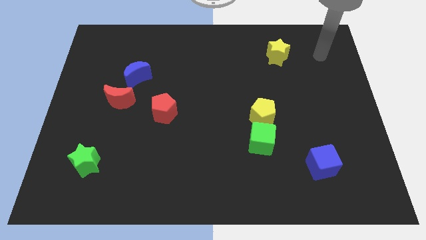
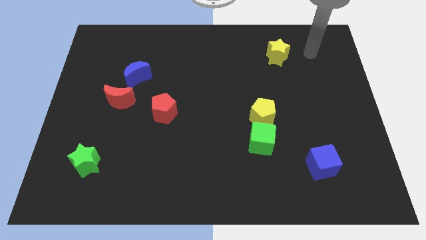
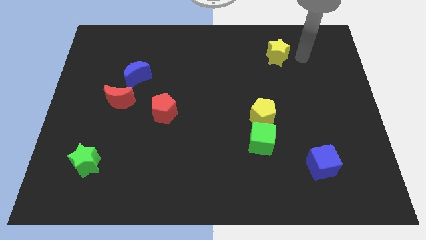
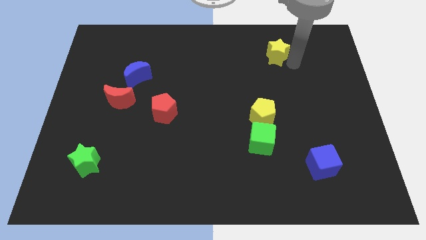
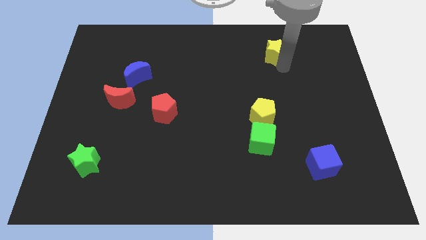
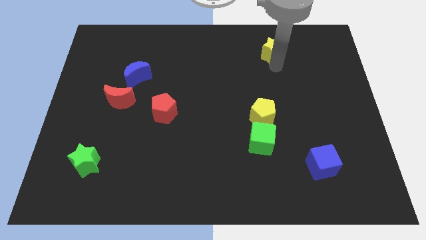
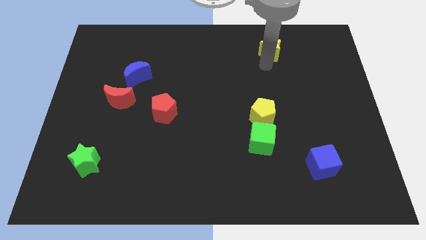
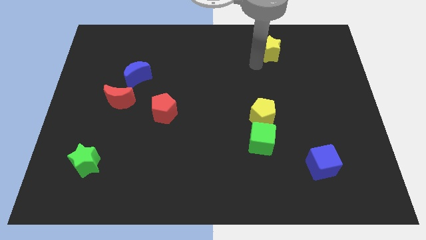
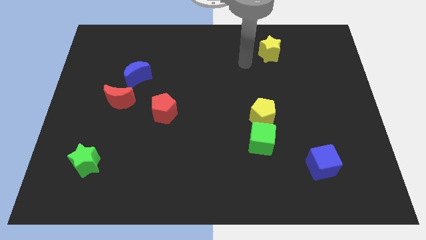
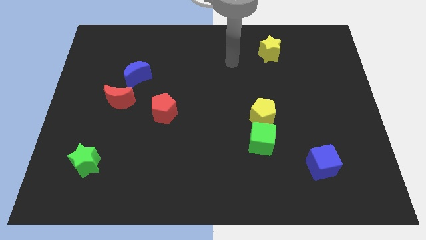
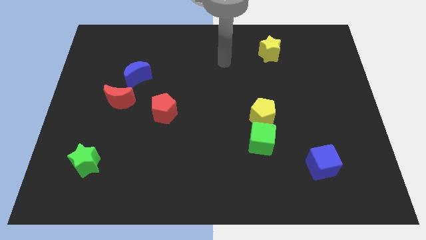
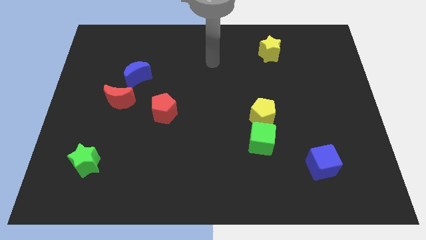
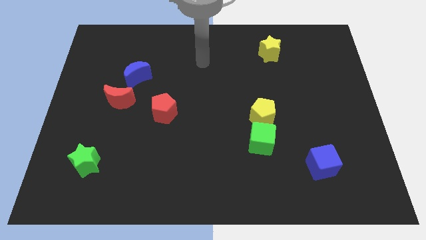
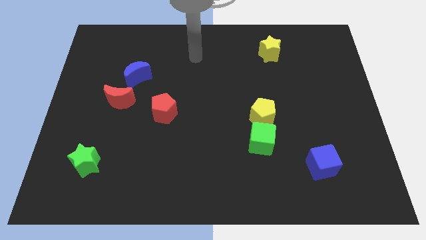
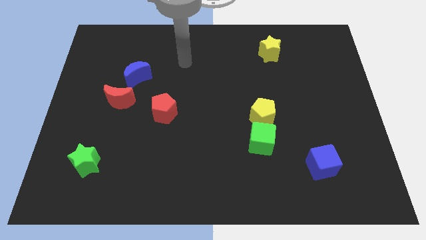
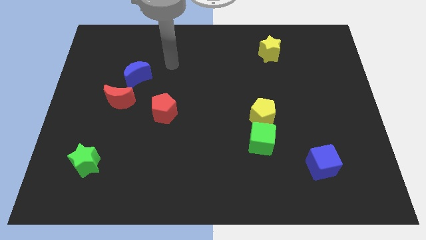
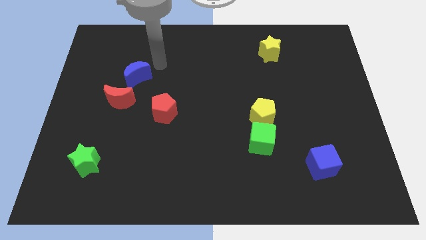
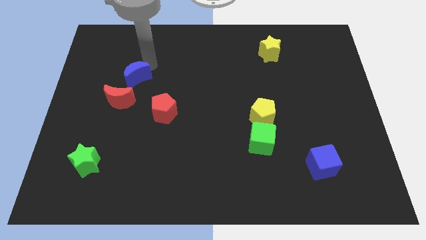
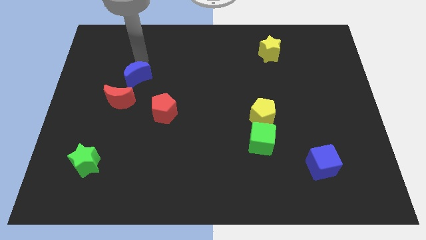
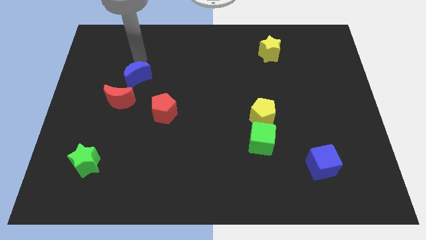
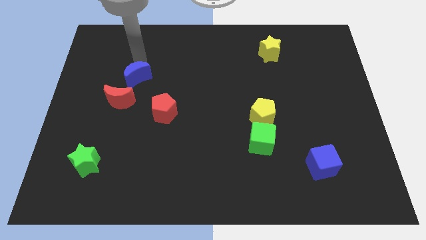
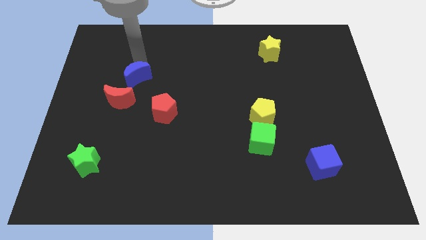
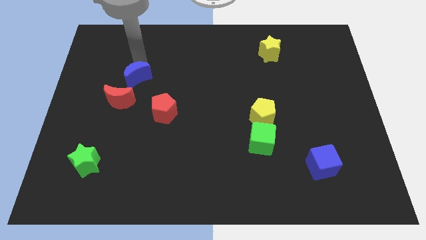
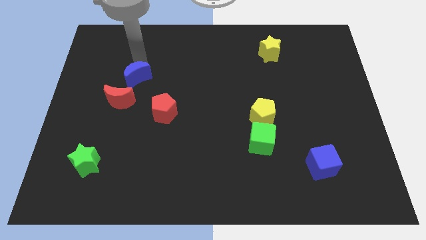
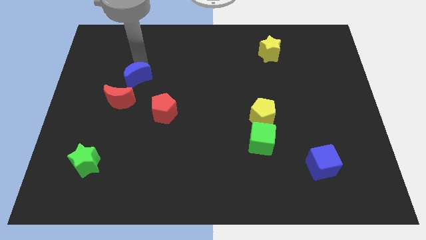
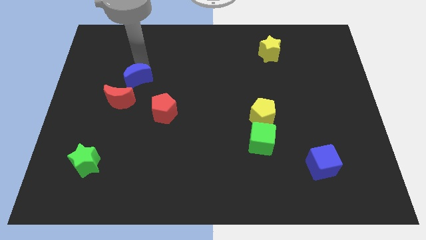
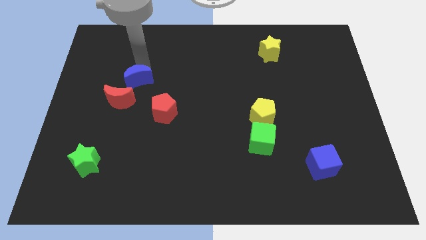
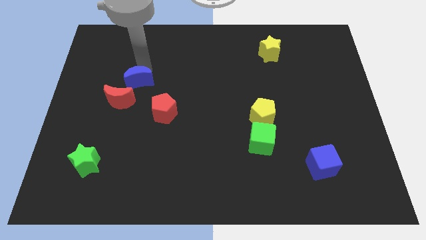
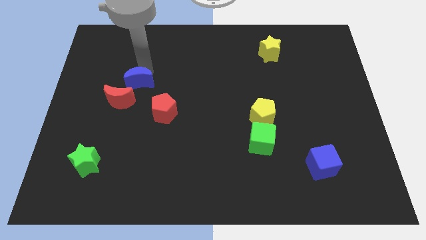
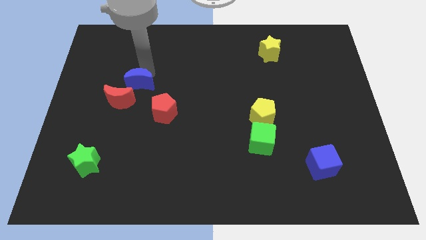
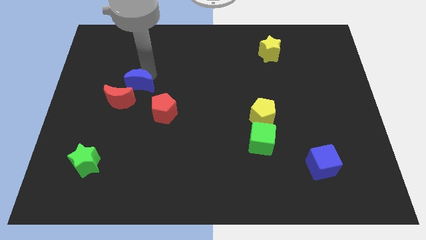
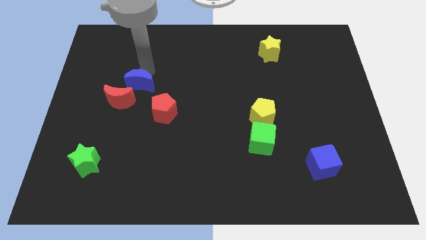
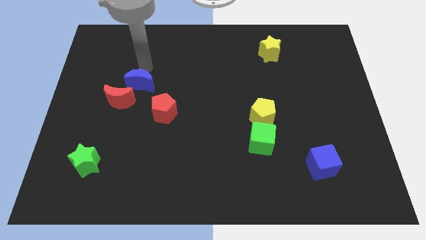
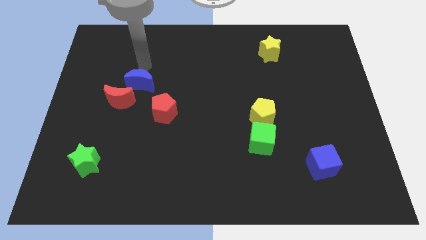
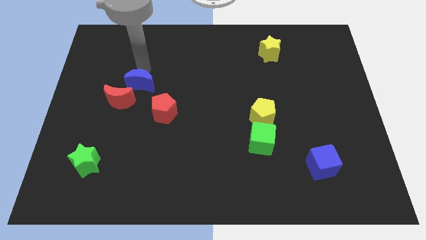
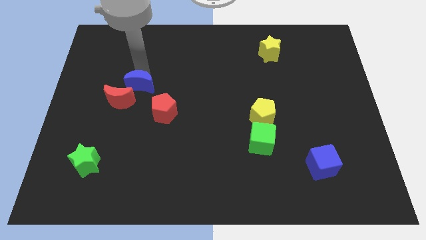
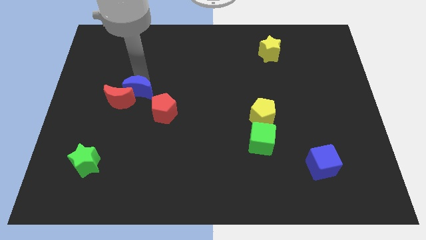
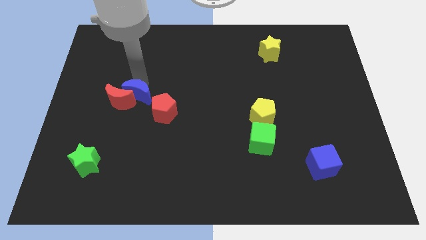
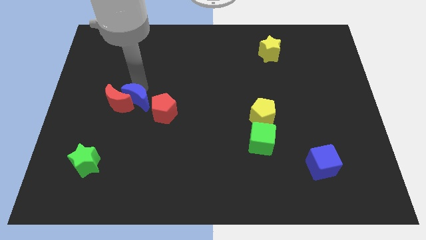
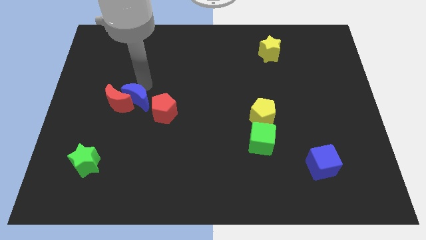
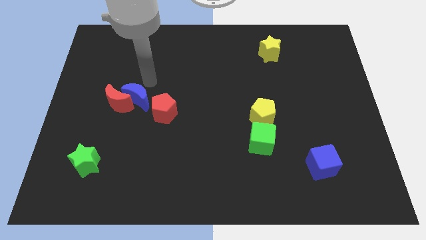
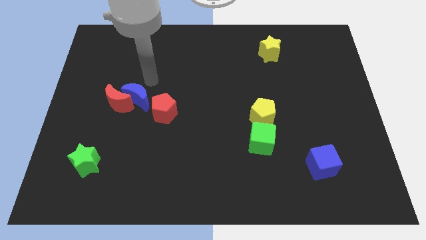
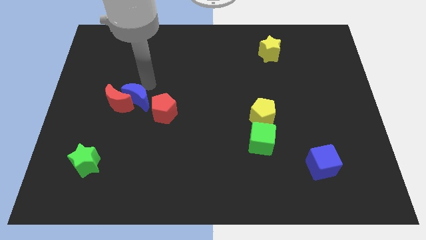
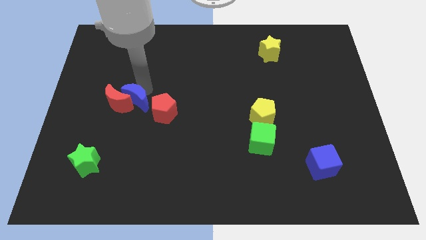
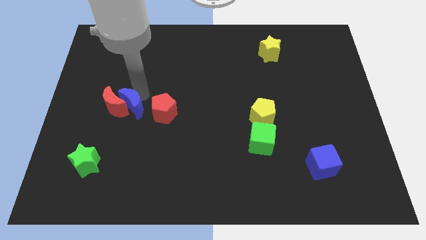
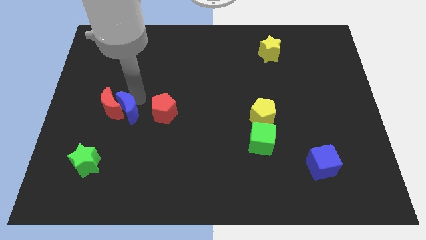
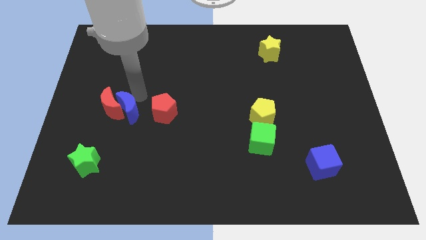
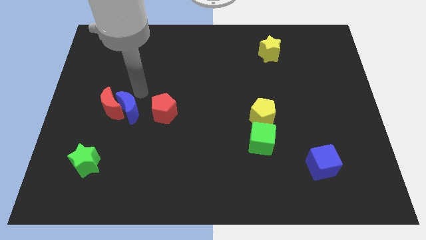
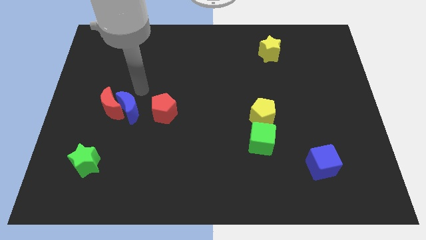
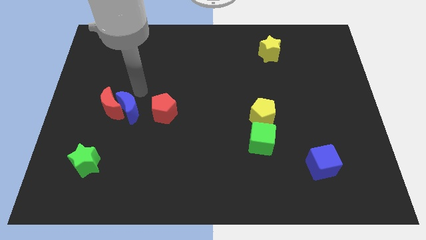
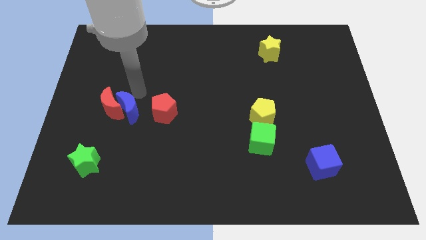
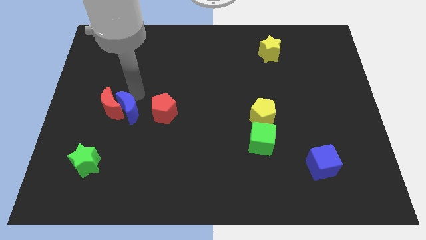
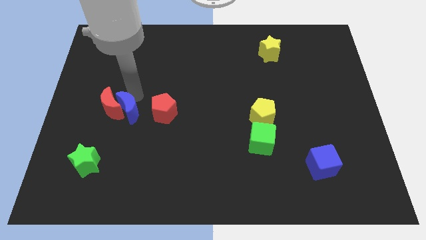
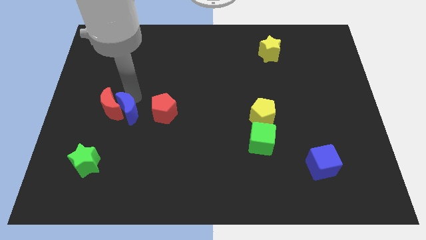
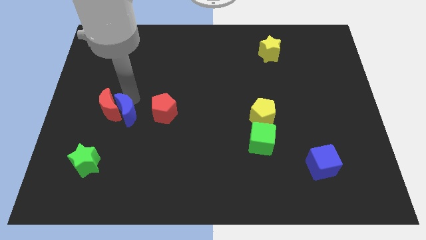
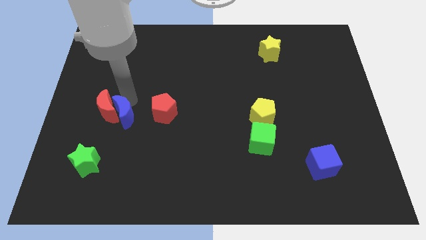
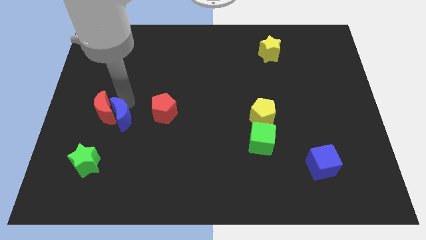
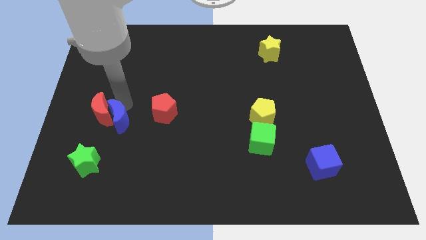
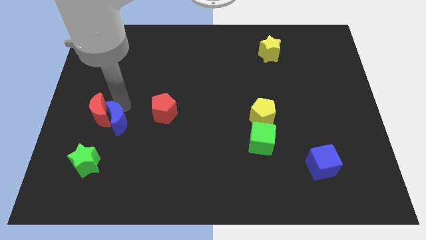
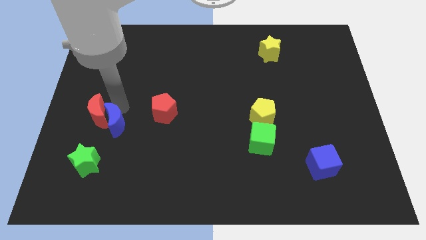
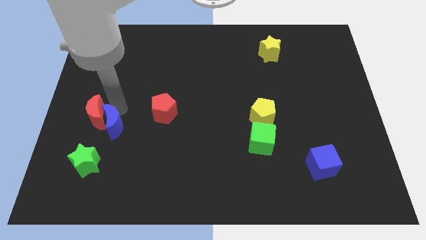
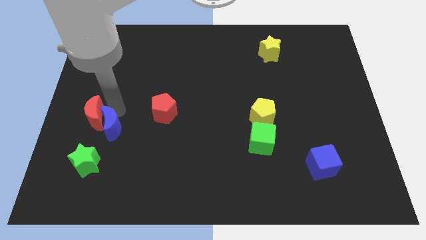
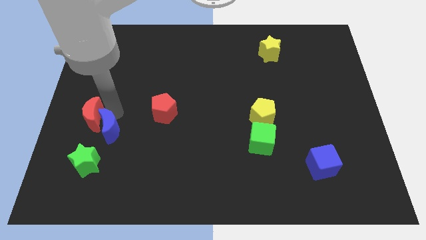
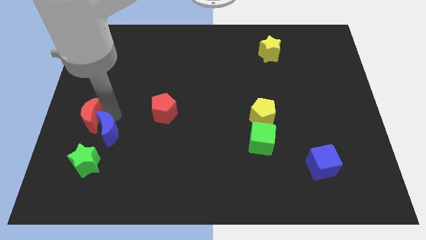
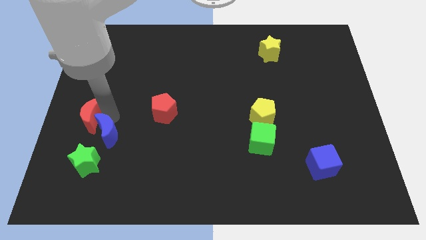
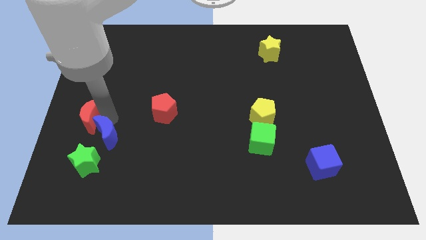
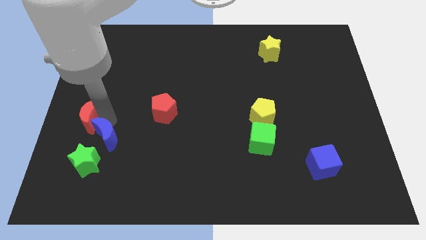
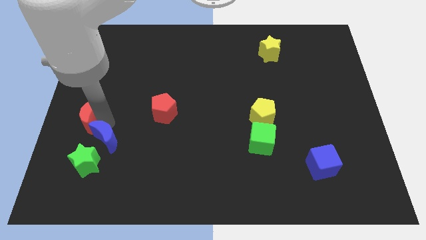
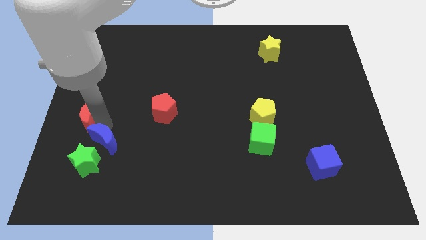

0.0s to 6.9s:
slide the blue moon next to the green star

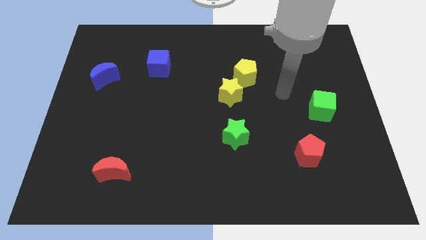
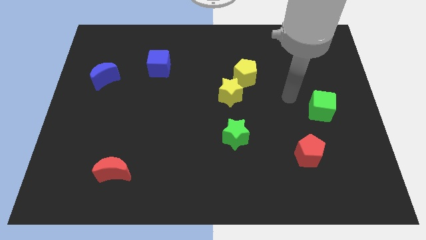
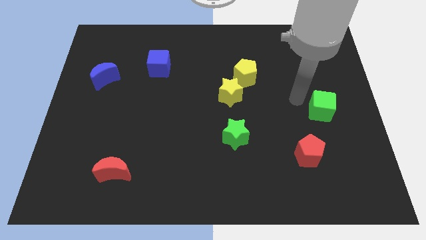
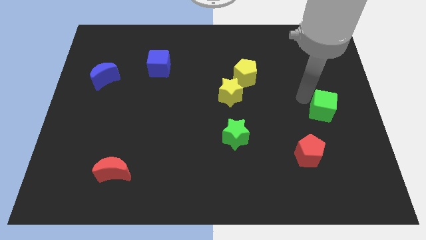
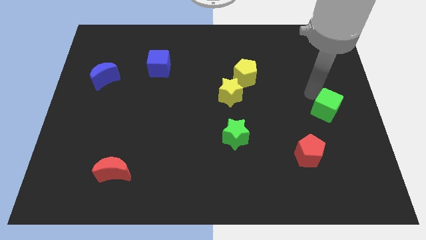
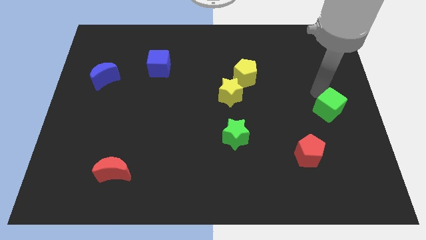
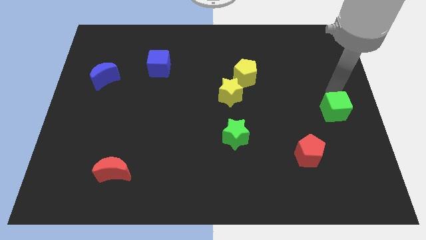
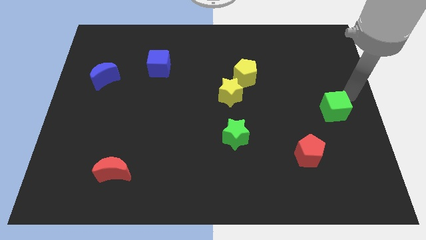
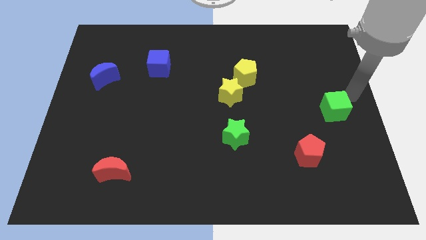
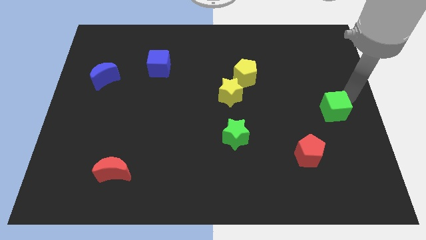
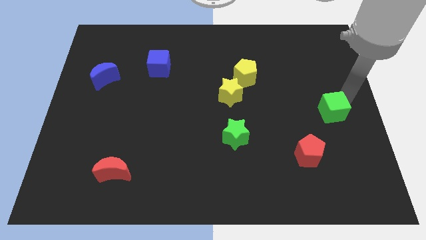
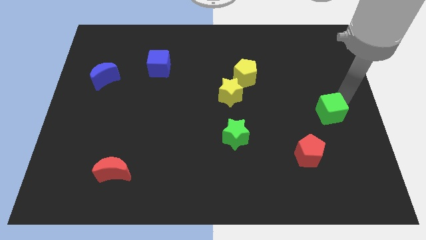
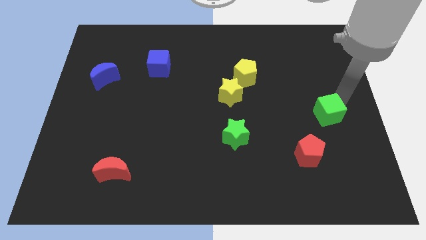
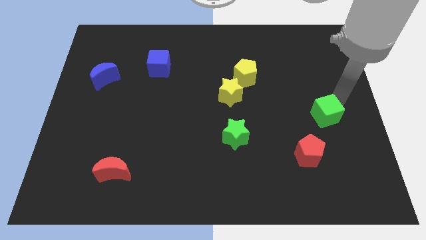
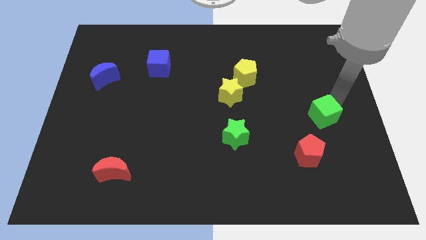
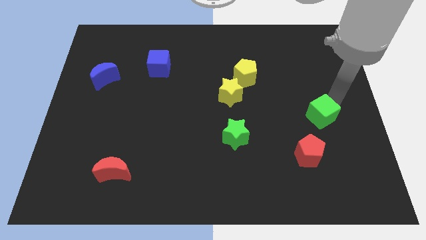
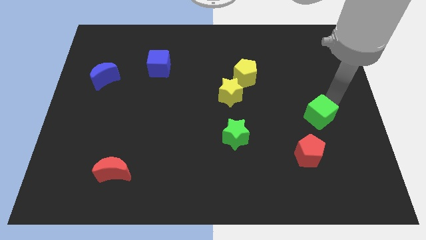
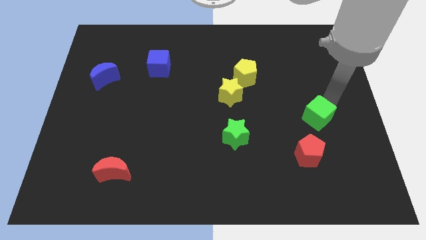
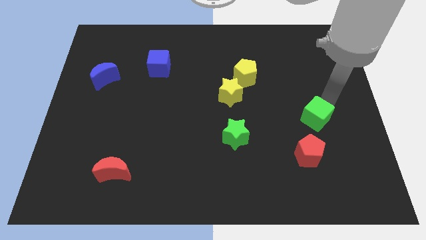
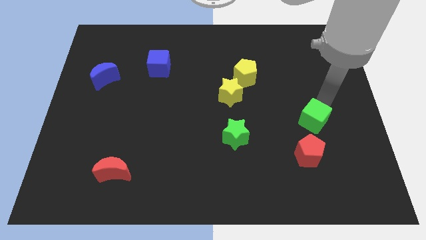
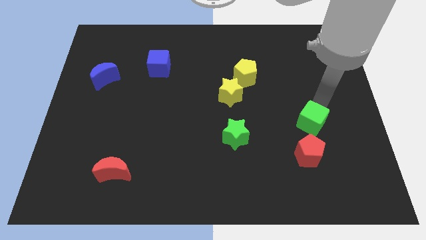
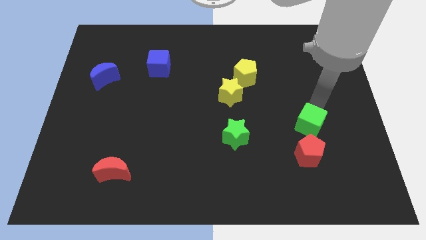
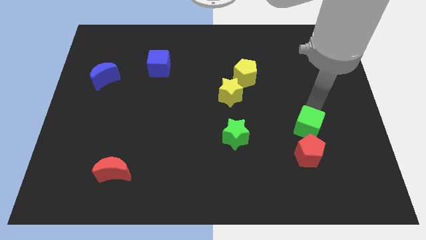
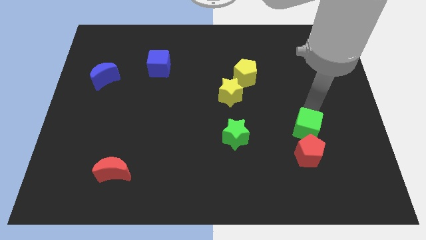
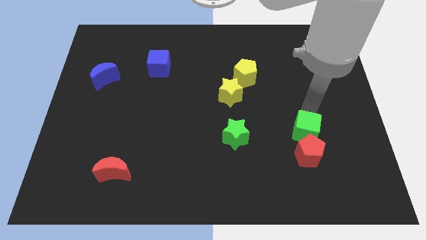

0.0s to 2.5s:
move the green cube towards the red pentagon
